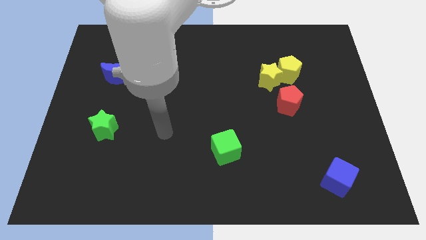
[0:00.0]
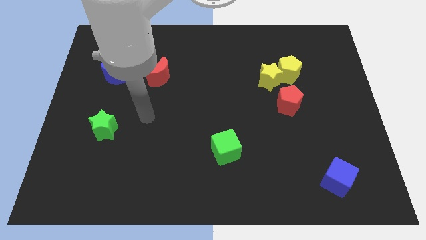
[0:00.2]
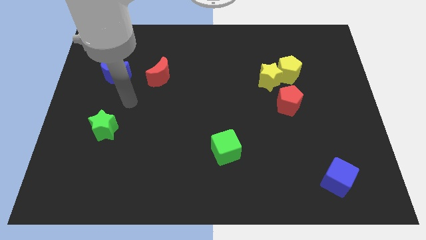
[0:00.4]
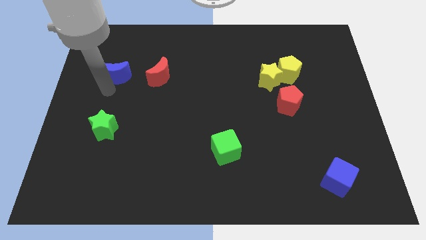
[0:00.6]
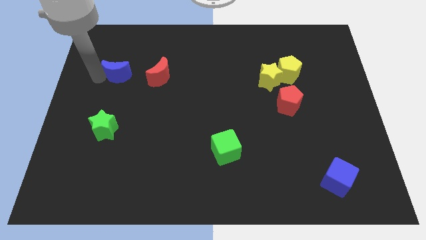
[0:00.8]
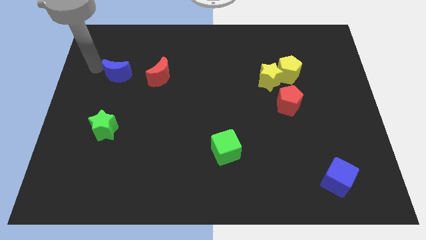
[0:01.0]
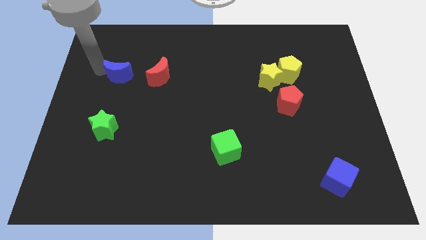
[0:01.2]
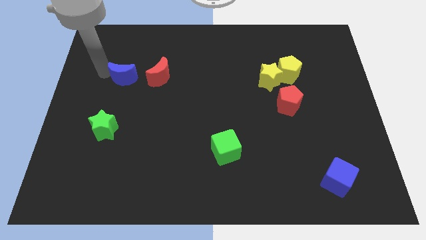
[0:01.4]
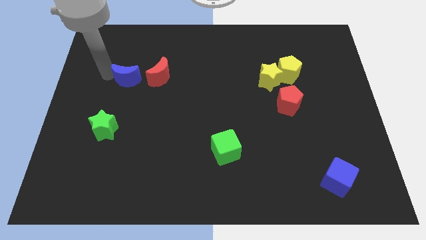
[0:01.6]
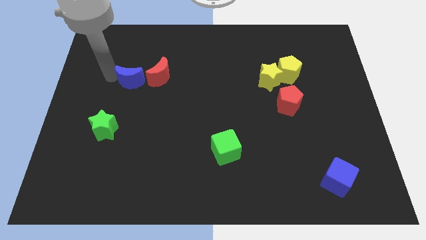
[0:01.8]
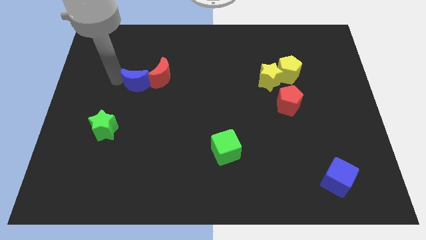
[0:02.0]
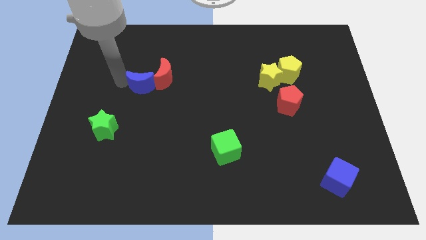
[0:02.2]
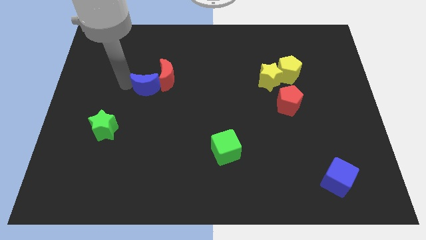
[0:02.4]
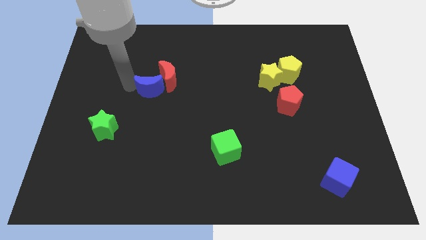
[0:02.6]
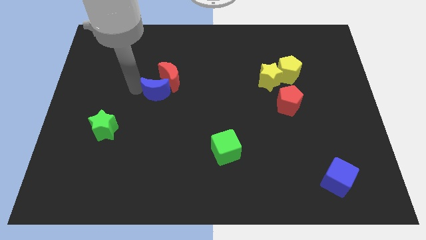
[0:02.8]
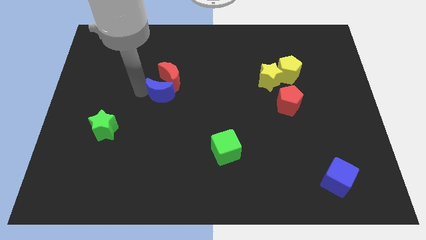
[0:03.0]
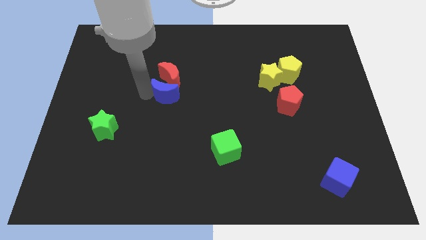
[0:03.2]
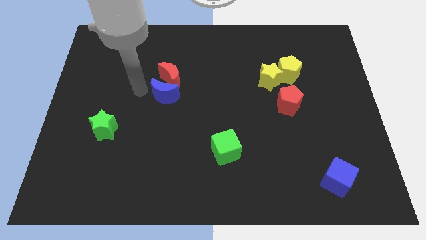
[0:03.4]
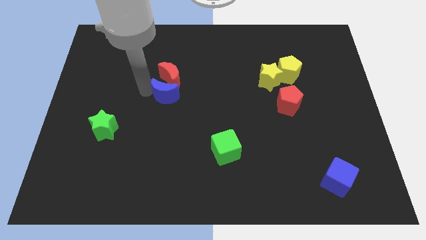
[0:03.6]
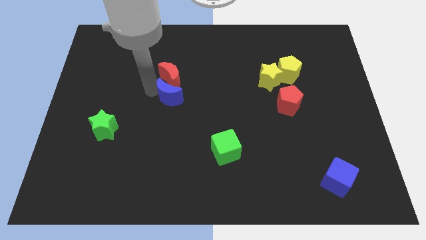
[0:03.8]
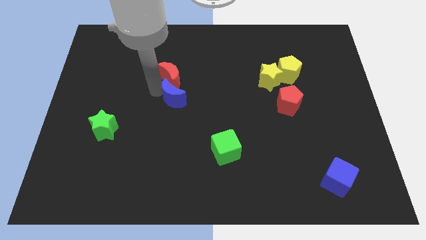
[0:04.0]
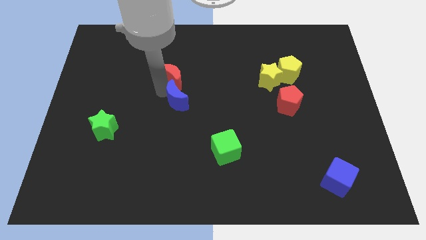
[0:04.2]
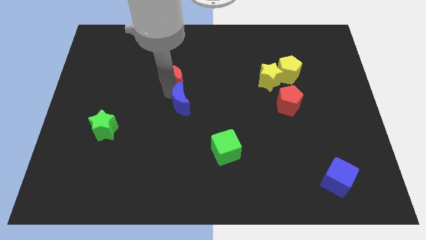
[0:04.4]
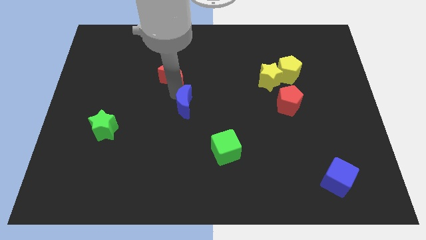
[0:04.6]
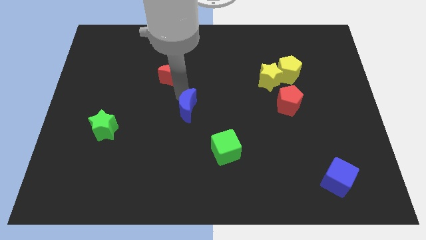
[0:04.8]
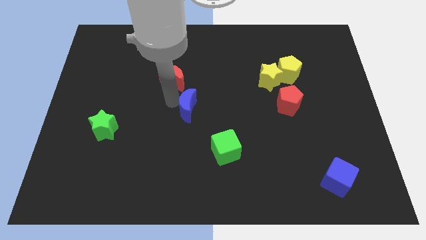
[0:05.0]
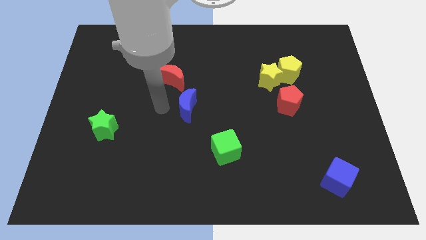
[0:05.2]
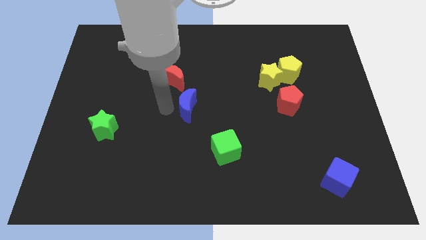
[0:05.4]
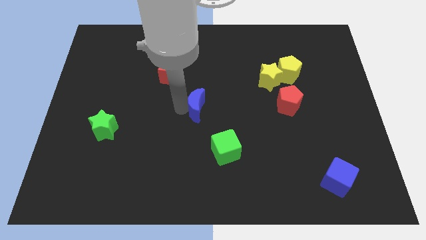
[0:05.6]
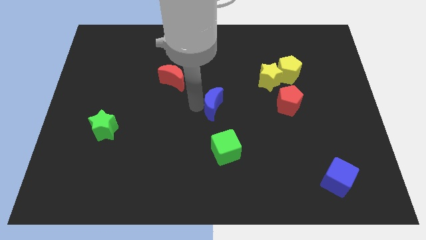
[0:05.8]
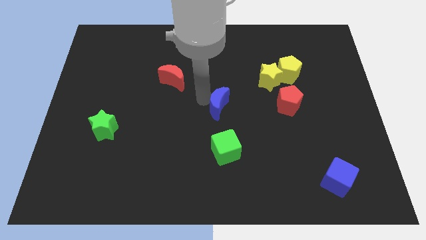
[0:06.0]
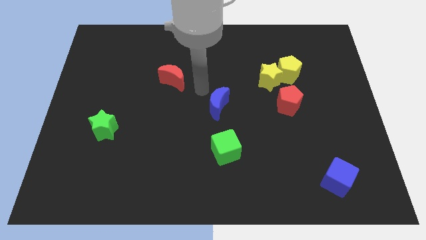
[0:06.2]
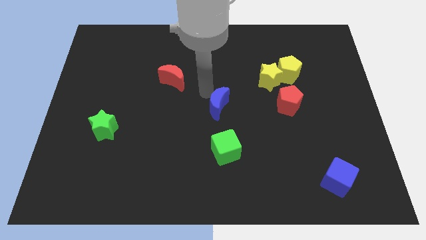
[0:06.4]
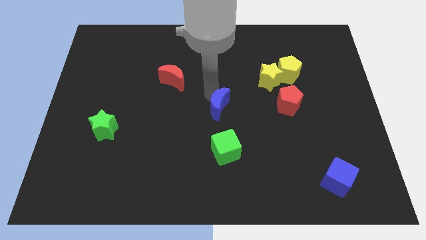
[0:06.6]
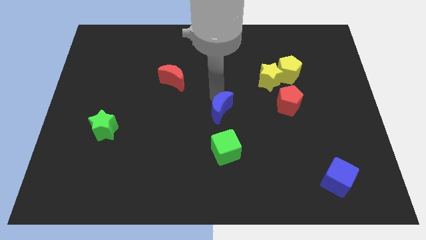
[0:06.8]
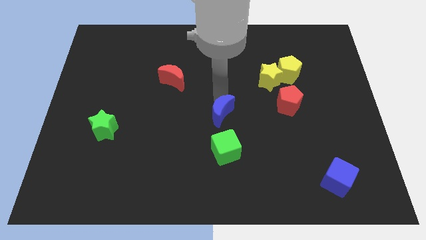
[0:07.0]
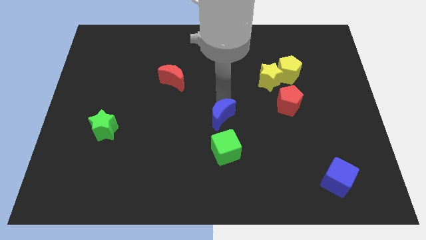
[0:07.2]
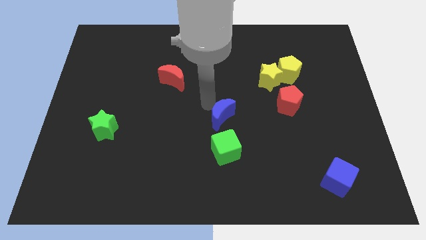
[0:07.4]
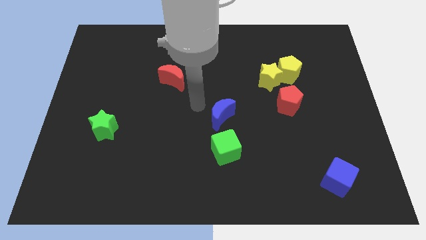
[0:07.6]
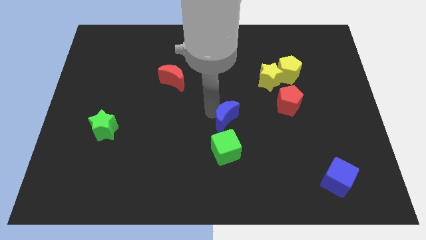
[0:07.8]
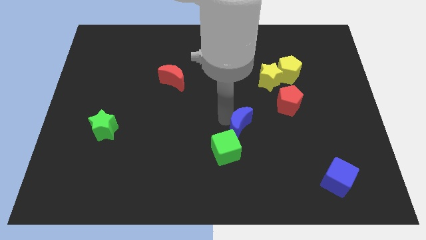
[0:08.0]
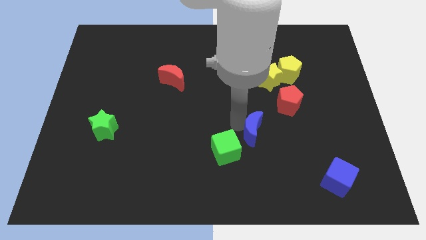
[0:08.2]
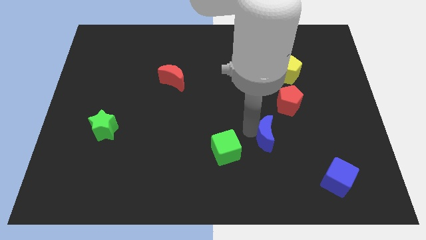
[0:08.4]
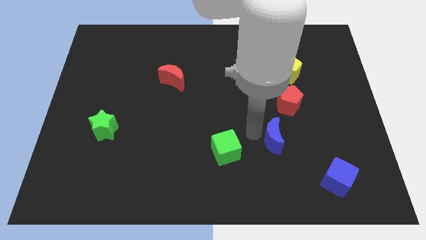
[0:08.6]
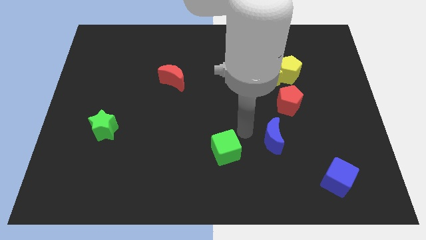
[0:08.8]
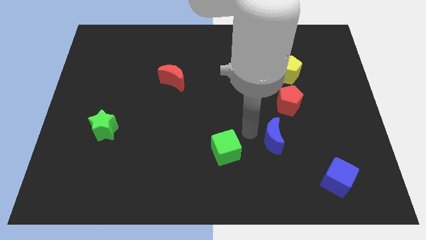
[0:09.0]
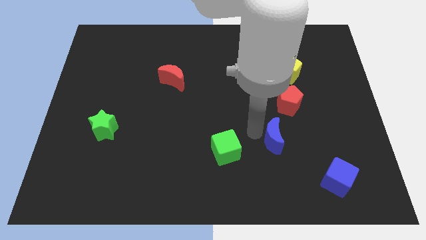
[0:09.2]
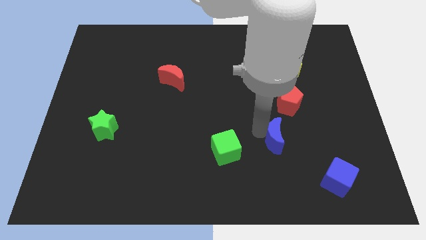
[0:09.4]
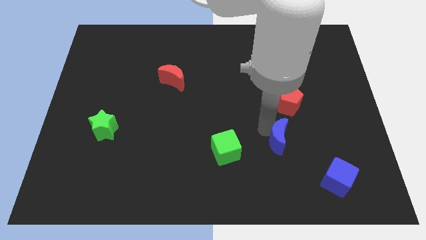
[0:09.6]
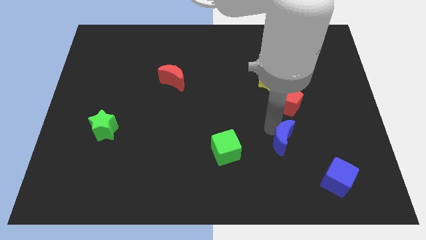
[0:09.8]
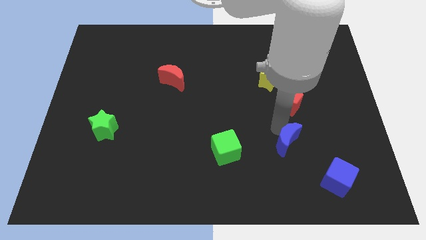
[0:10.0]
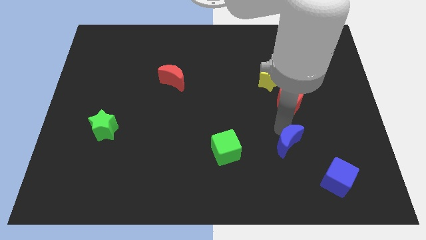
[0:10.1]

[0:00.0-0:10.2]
move the blue moon to the top left side of the blue cube

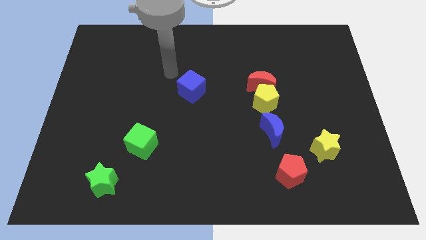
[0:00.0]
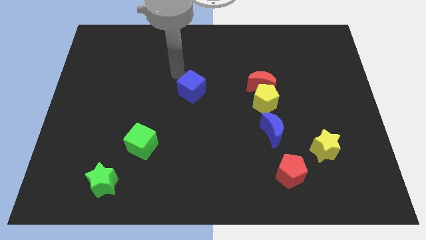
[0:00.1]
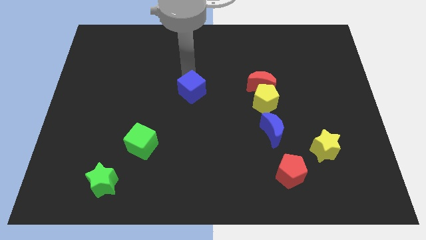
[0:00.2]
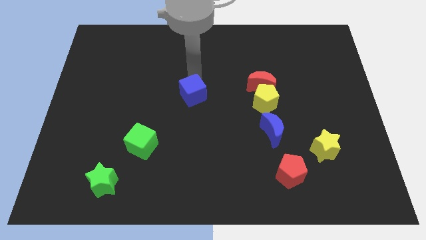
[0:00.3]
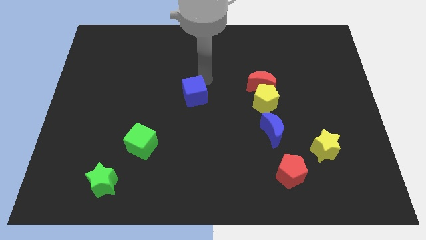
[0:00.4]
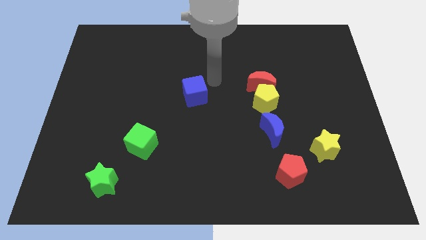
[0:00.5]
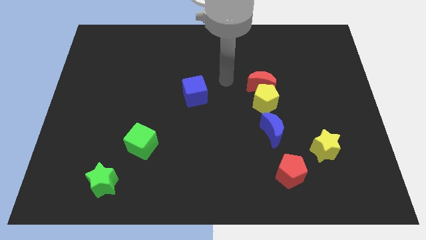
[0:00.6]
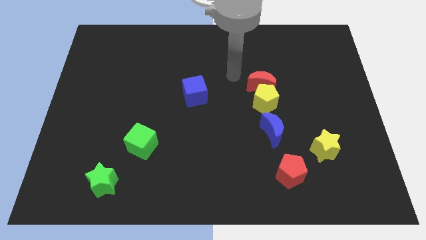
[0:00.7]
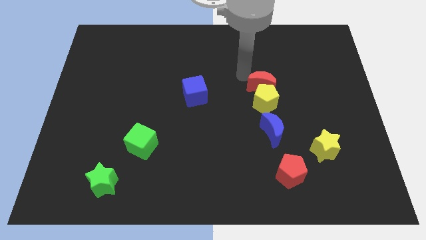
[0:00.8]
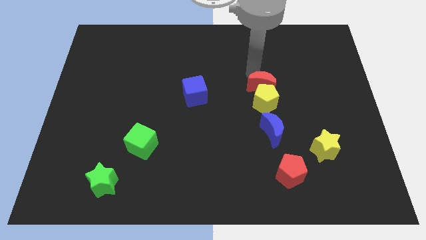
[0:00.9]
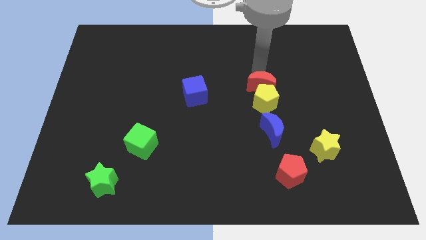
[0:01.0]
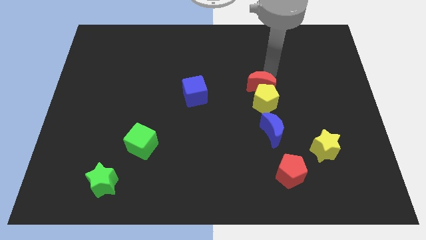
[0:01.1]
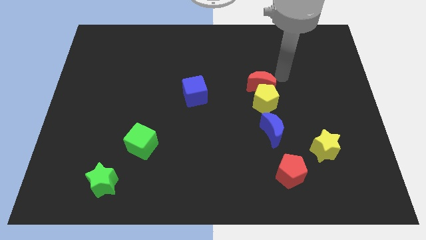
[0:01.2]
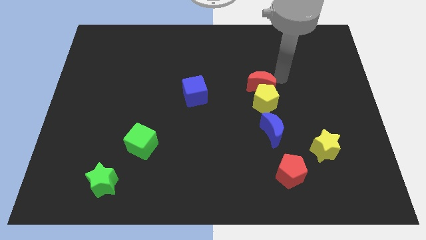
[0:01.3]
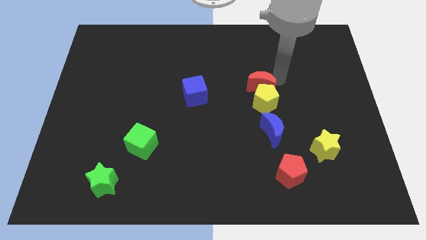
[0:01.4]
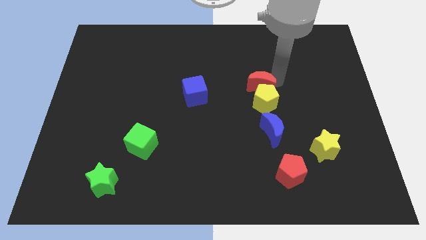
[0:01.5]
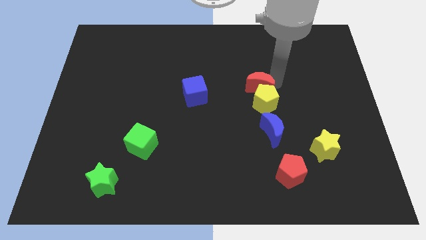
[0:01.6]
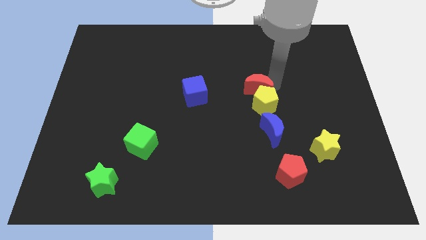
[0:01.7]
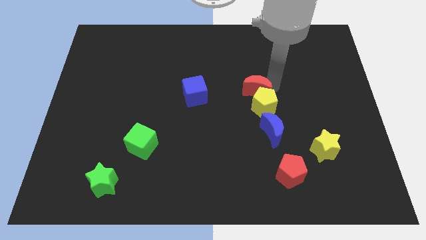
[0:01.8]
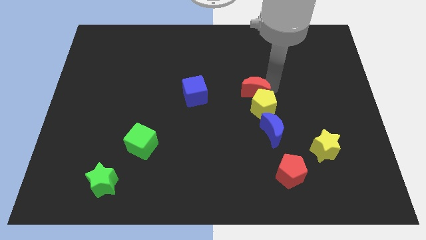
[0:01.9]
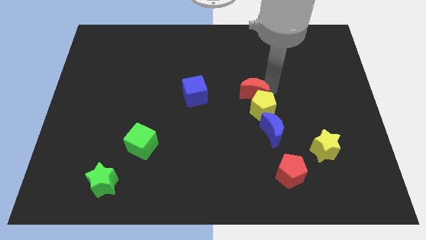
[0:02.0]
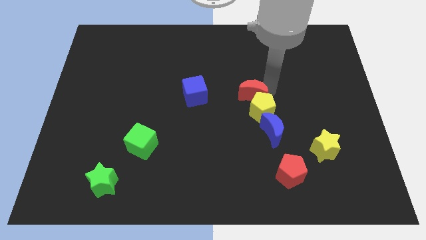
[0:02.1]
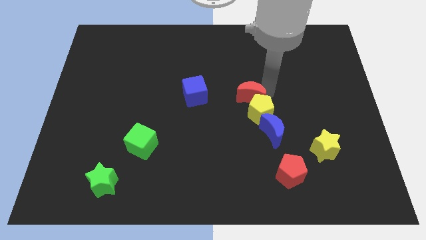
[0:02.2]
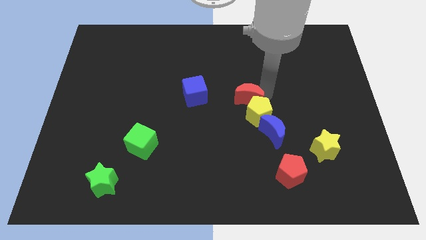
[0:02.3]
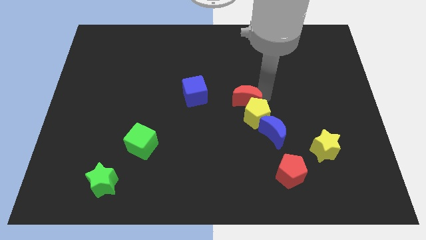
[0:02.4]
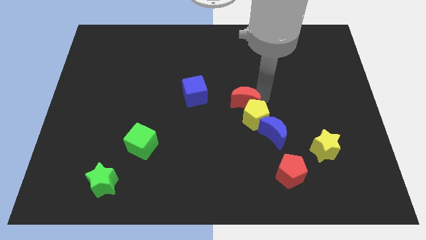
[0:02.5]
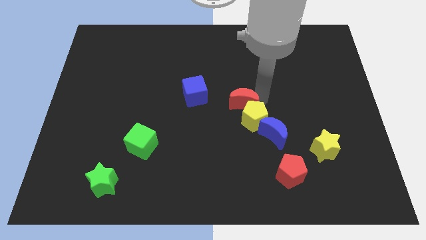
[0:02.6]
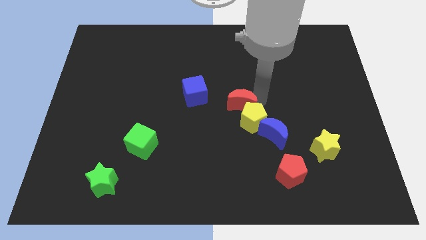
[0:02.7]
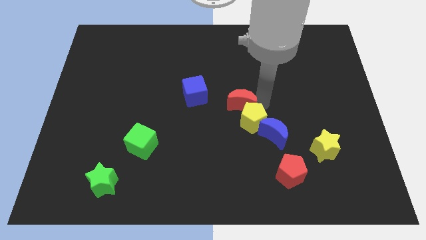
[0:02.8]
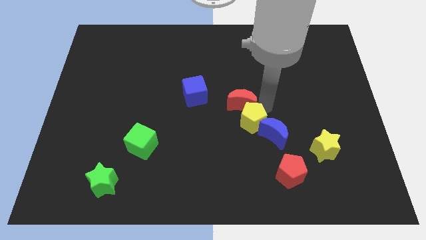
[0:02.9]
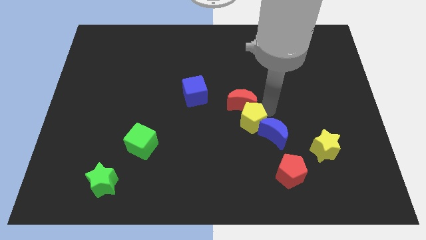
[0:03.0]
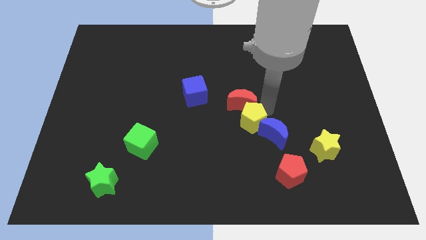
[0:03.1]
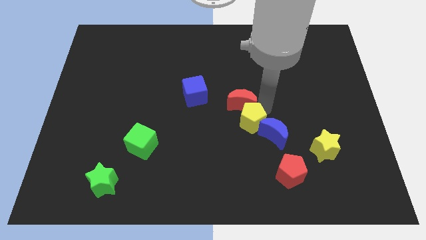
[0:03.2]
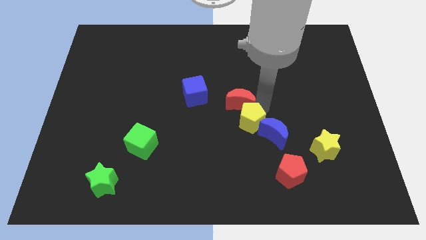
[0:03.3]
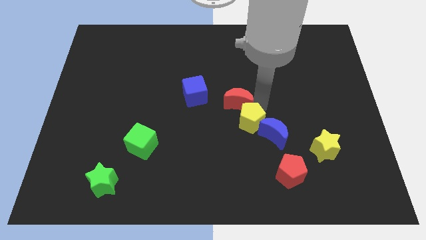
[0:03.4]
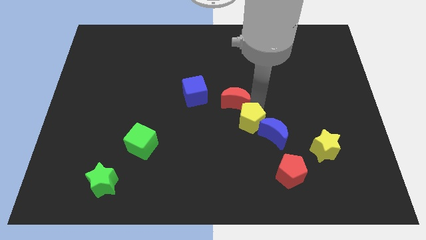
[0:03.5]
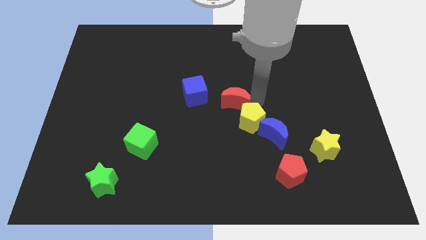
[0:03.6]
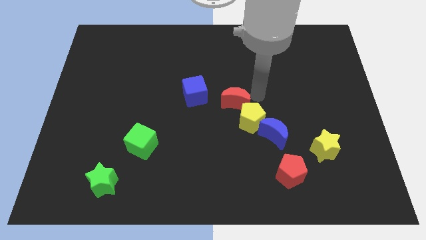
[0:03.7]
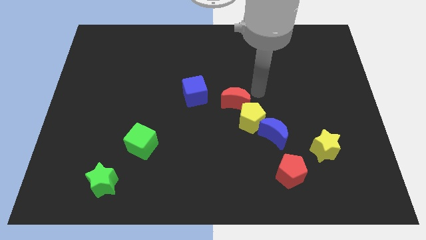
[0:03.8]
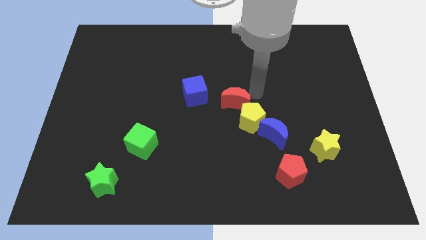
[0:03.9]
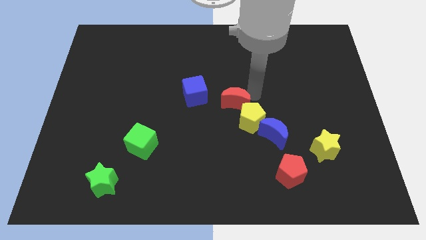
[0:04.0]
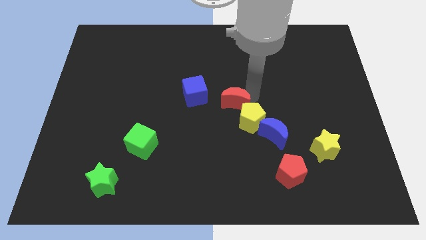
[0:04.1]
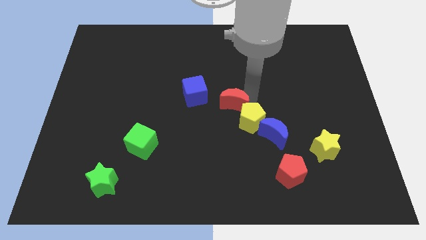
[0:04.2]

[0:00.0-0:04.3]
move the red moon to the bottom right of the blue cube
